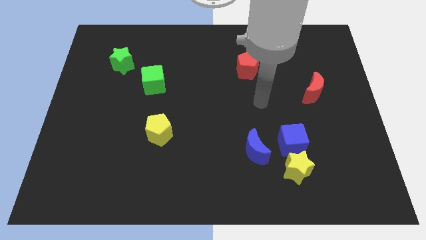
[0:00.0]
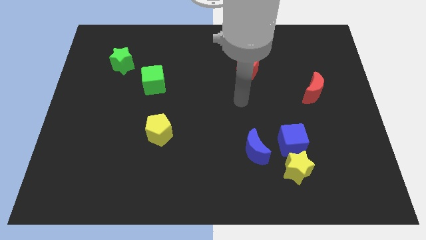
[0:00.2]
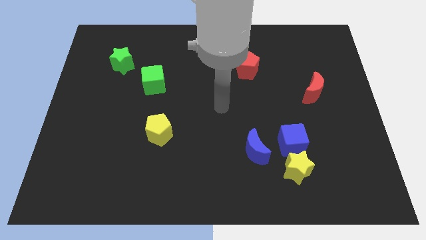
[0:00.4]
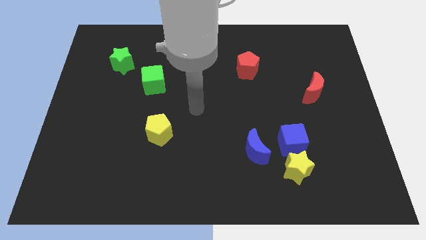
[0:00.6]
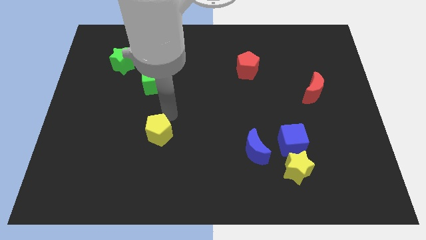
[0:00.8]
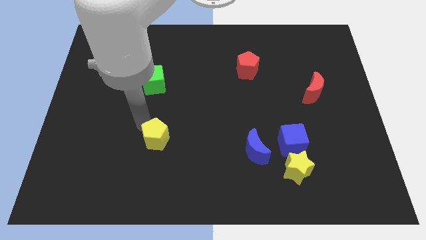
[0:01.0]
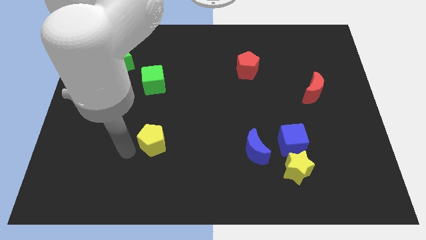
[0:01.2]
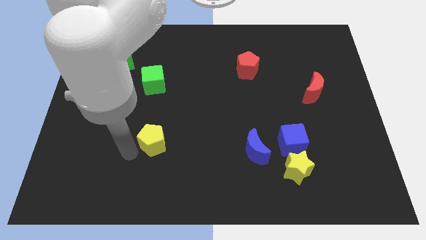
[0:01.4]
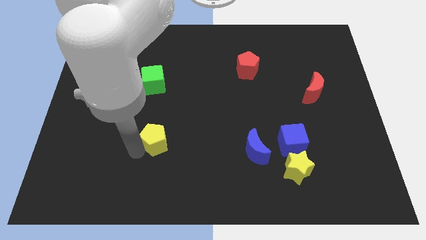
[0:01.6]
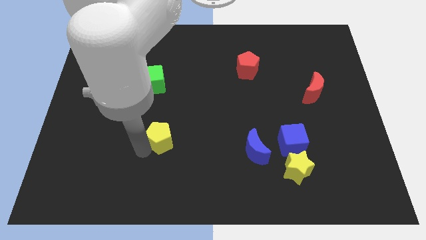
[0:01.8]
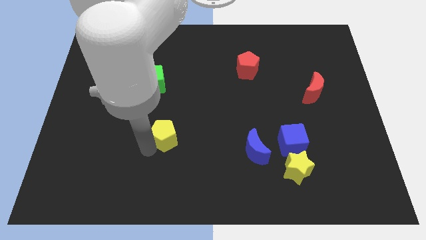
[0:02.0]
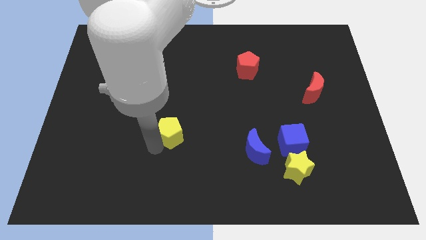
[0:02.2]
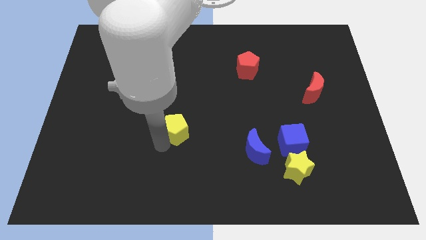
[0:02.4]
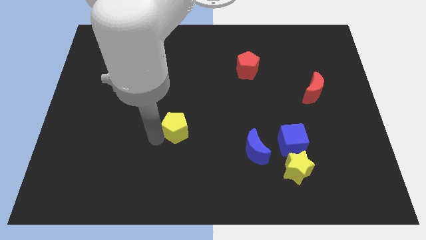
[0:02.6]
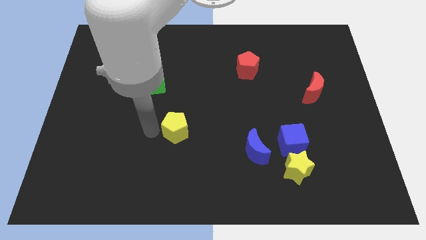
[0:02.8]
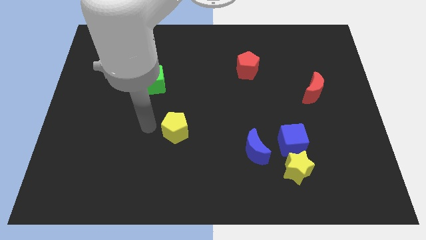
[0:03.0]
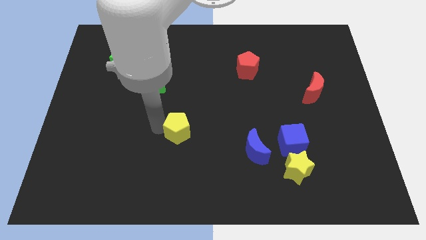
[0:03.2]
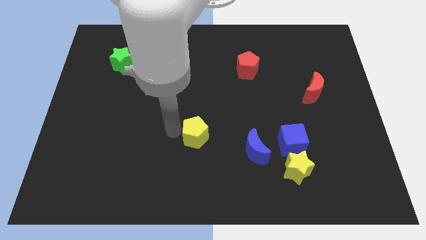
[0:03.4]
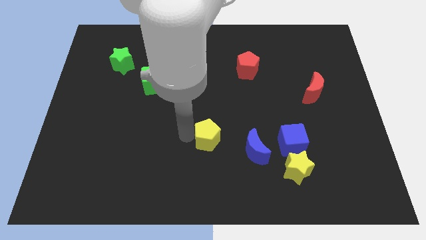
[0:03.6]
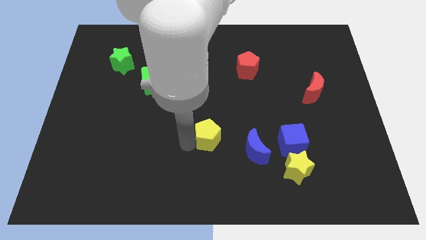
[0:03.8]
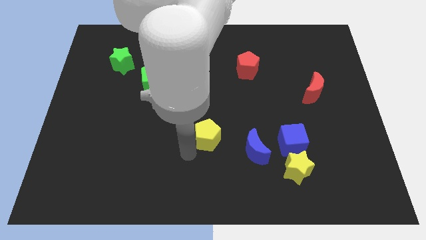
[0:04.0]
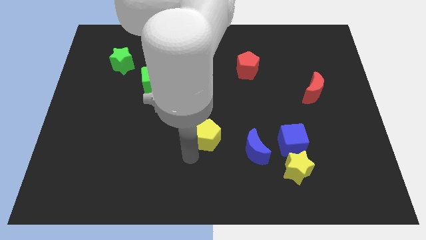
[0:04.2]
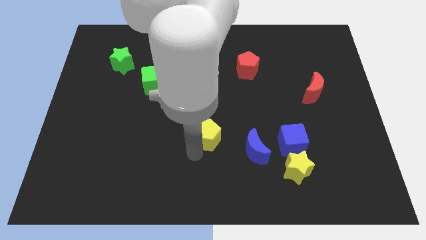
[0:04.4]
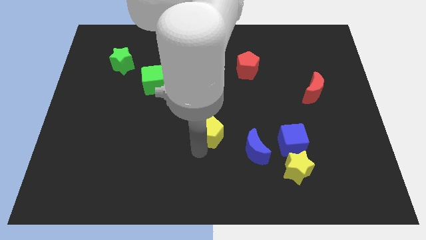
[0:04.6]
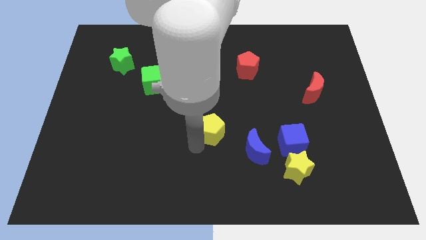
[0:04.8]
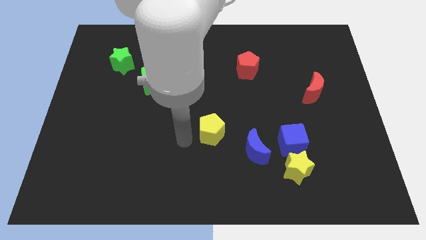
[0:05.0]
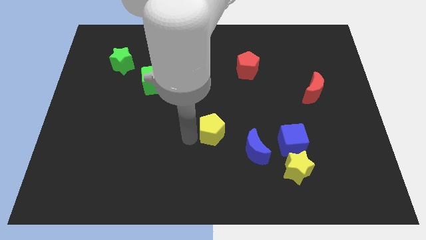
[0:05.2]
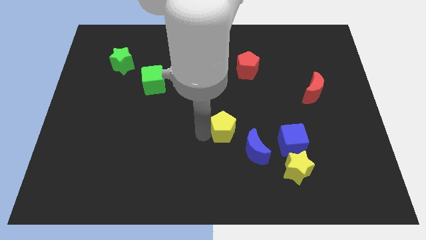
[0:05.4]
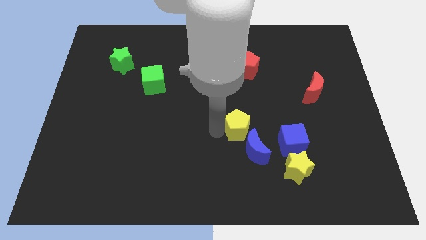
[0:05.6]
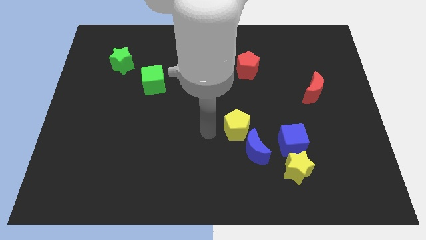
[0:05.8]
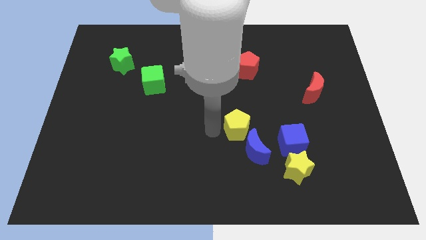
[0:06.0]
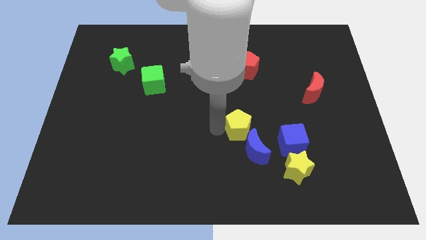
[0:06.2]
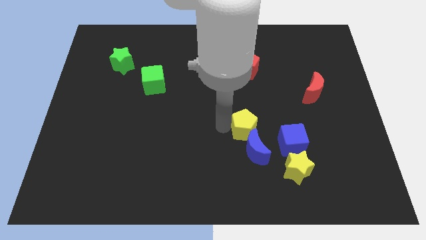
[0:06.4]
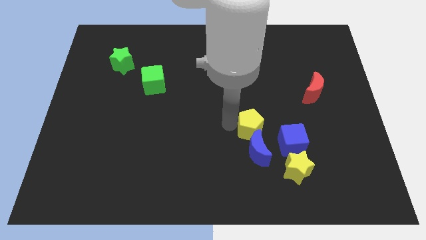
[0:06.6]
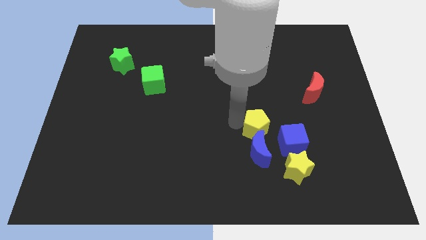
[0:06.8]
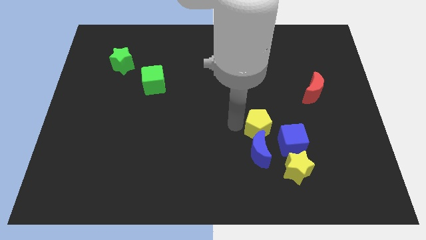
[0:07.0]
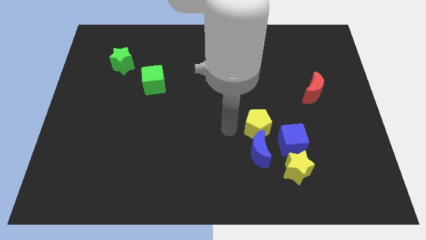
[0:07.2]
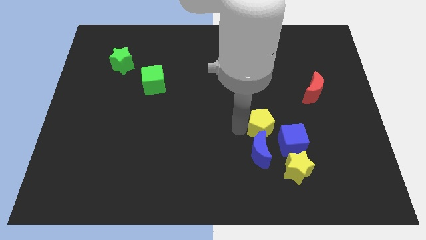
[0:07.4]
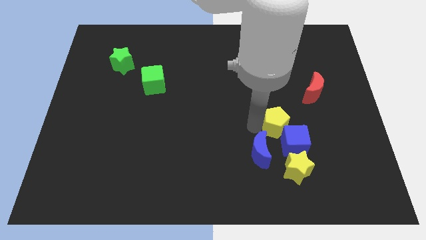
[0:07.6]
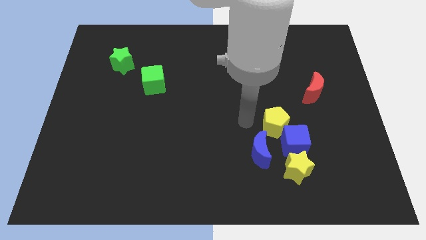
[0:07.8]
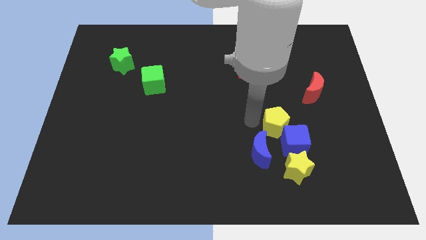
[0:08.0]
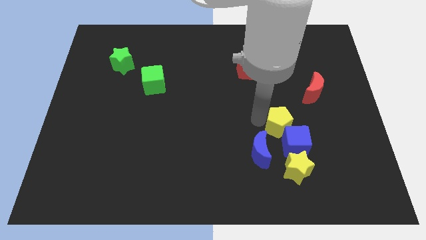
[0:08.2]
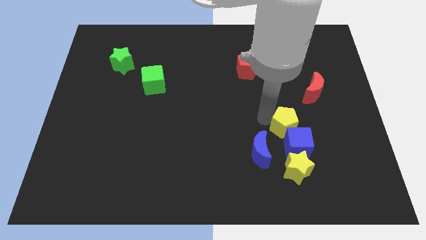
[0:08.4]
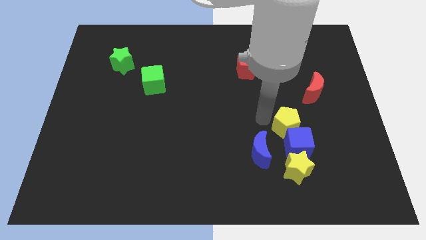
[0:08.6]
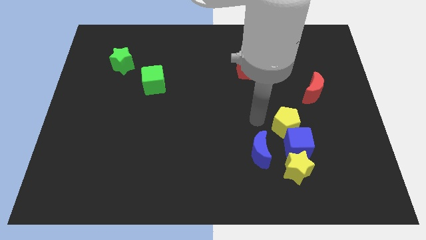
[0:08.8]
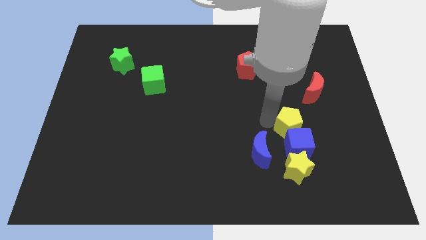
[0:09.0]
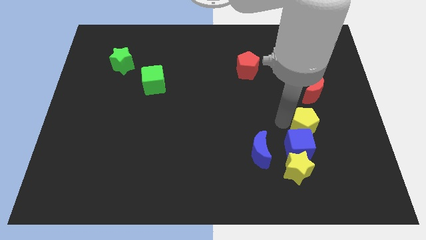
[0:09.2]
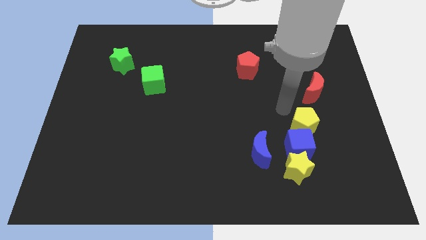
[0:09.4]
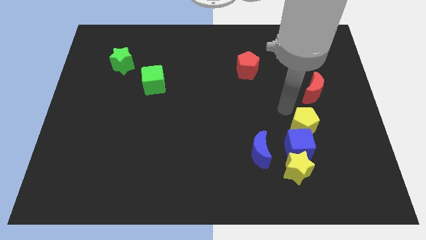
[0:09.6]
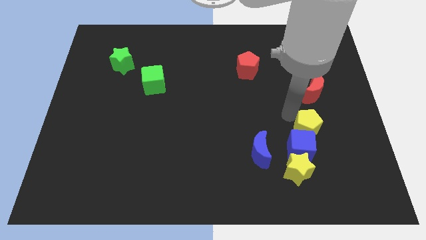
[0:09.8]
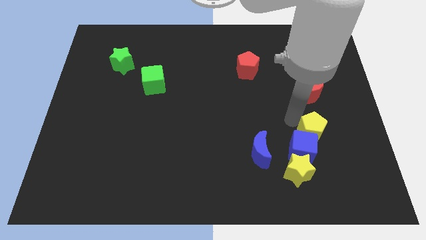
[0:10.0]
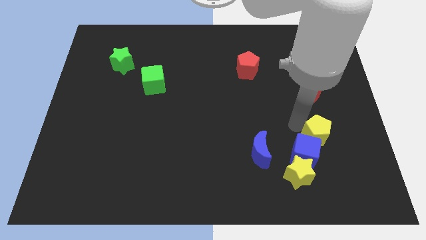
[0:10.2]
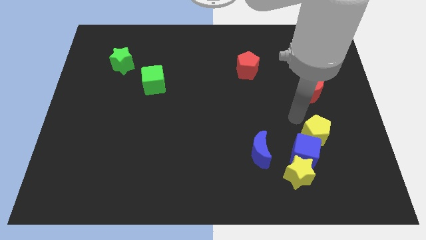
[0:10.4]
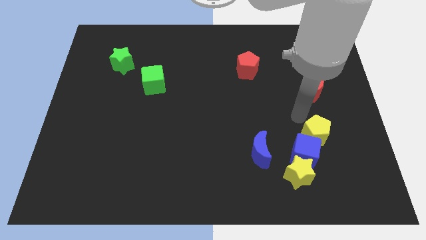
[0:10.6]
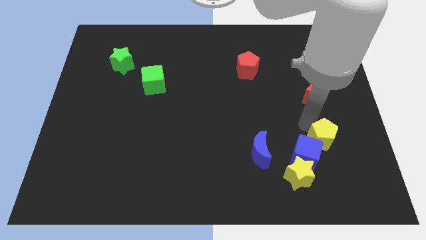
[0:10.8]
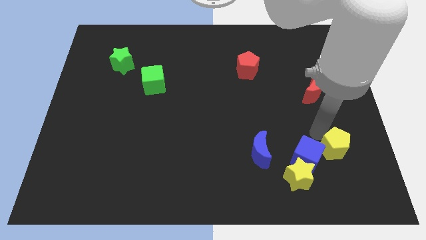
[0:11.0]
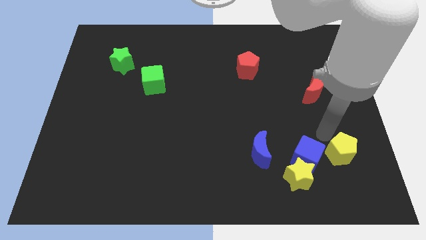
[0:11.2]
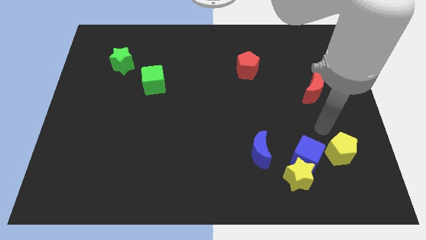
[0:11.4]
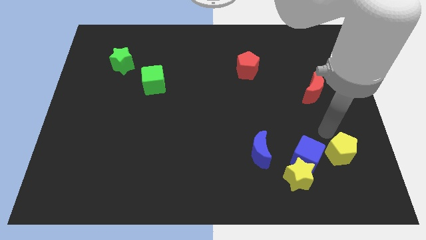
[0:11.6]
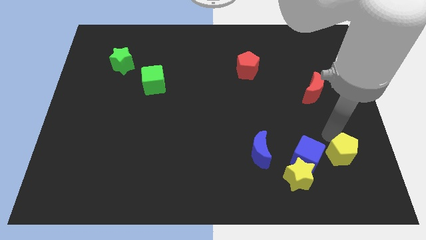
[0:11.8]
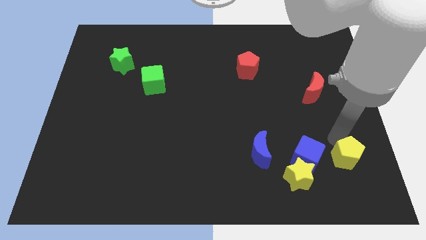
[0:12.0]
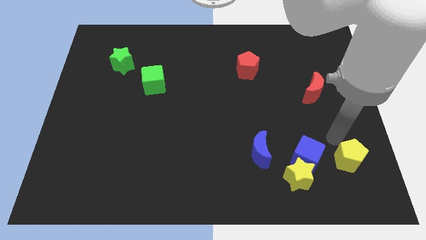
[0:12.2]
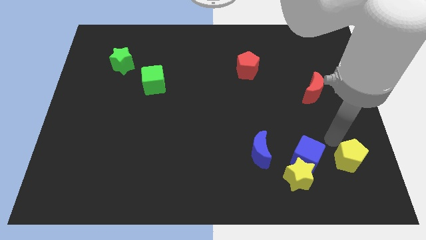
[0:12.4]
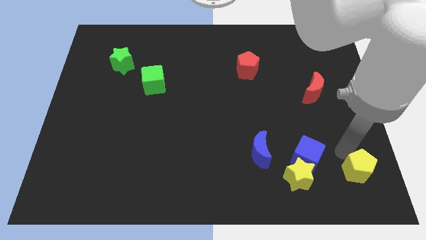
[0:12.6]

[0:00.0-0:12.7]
slide the yellow pentagon to the lower right corner
